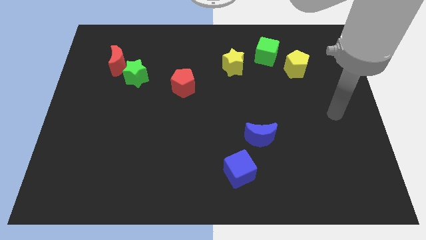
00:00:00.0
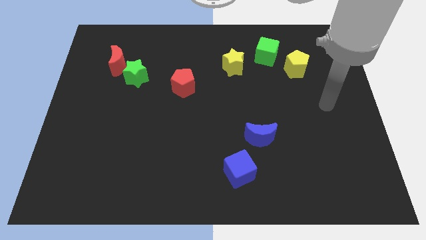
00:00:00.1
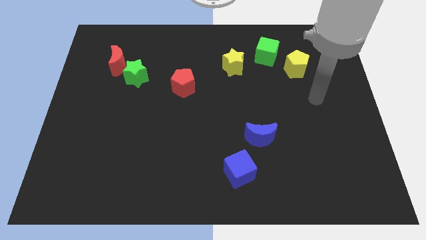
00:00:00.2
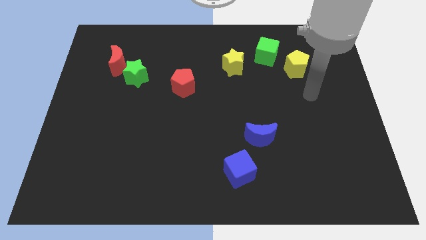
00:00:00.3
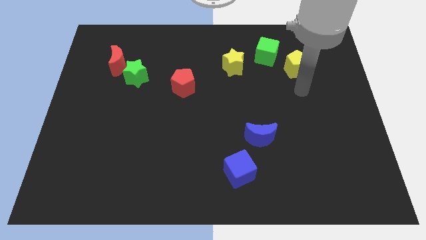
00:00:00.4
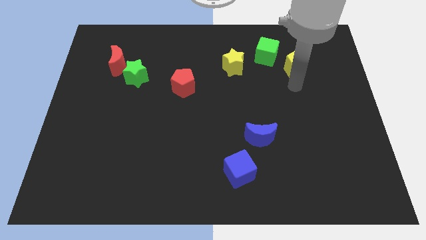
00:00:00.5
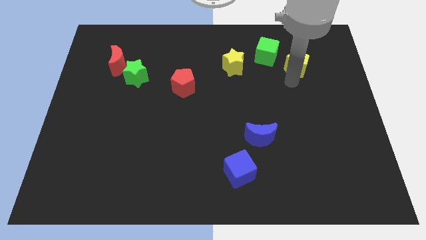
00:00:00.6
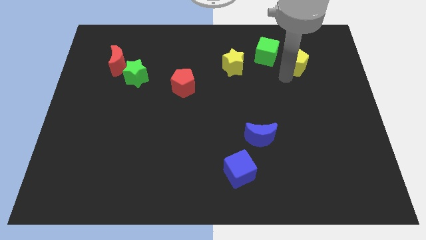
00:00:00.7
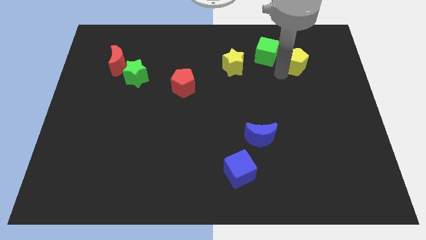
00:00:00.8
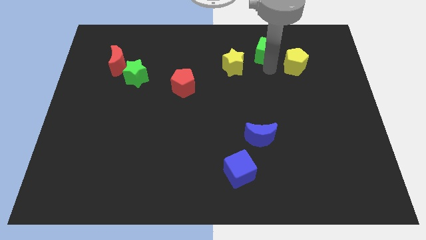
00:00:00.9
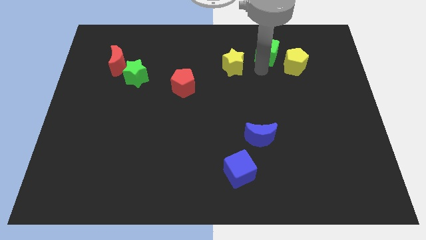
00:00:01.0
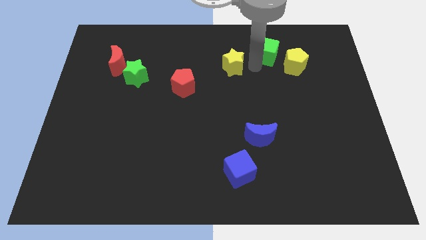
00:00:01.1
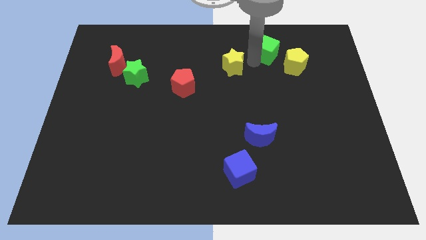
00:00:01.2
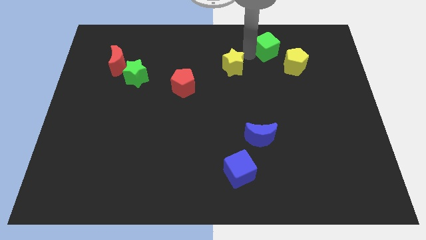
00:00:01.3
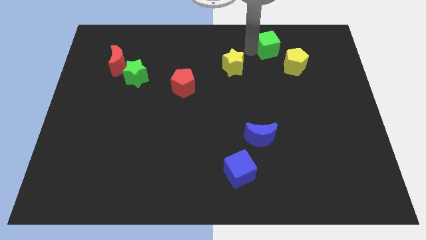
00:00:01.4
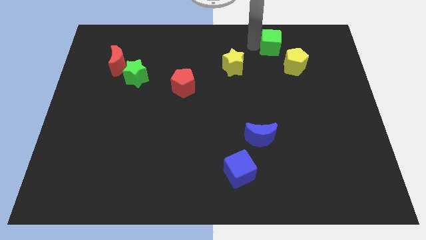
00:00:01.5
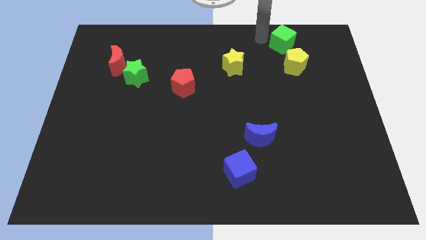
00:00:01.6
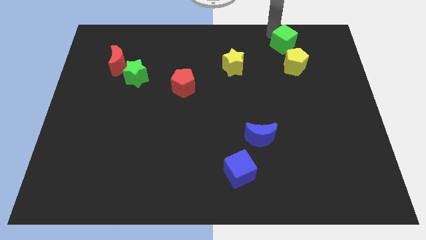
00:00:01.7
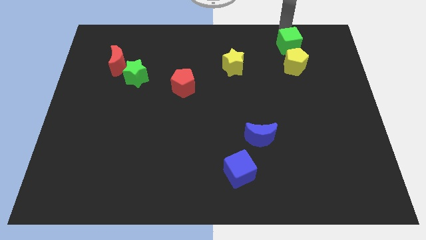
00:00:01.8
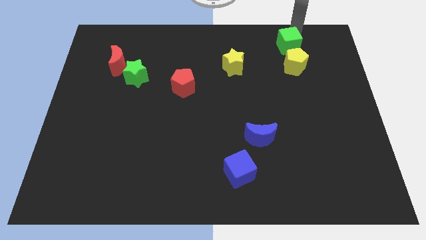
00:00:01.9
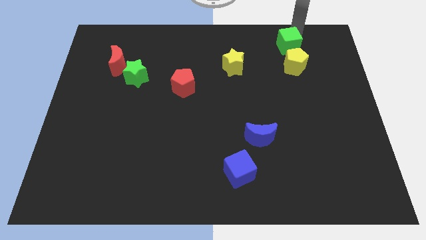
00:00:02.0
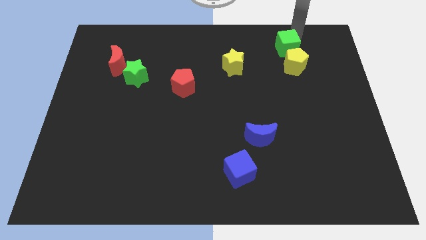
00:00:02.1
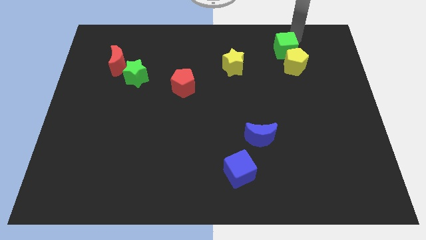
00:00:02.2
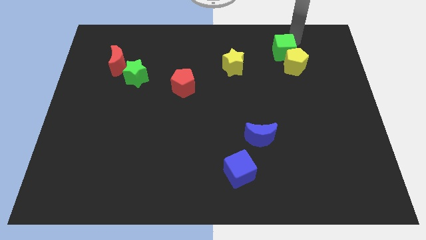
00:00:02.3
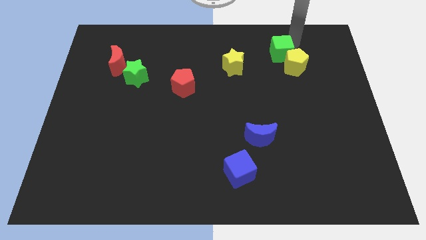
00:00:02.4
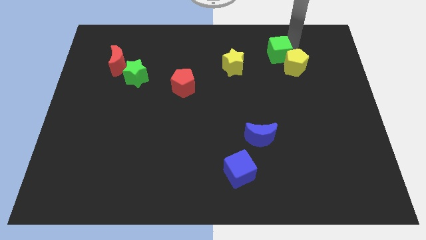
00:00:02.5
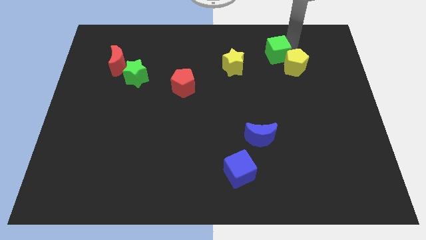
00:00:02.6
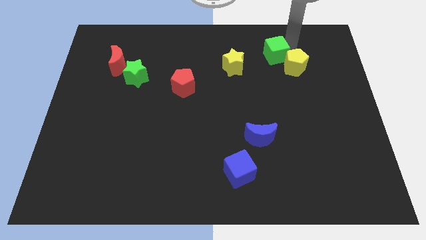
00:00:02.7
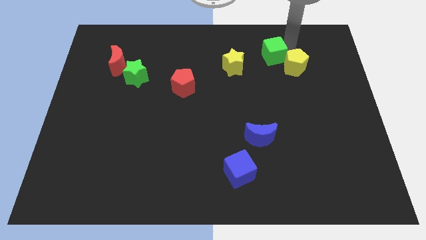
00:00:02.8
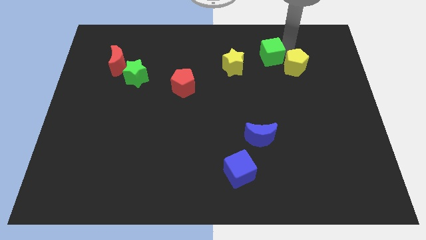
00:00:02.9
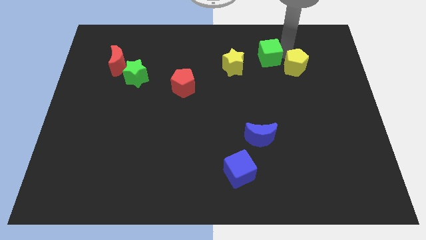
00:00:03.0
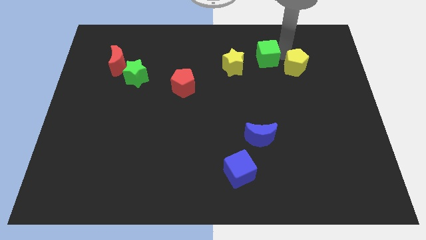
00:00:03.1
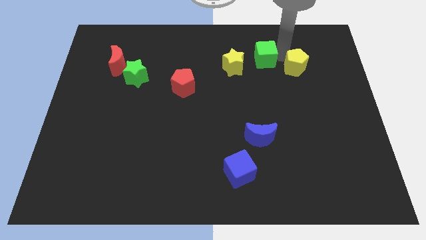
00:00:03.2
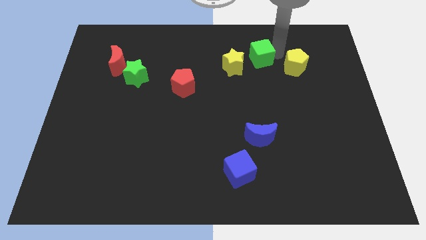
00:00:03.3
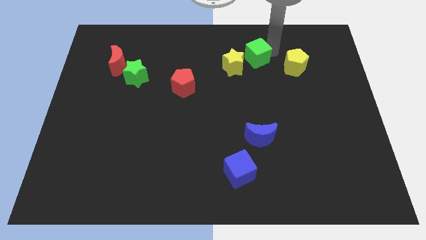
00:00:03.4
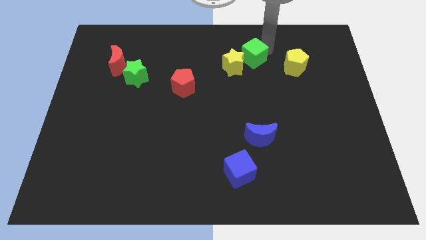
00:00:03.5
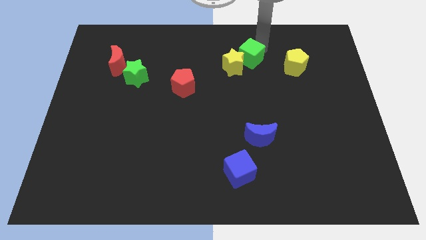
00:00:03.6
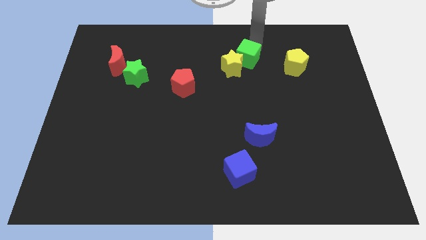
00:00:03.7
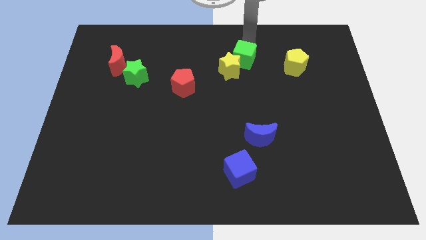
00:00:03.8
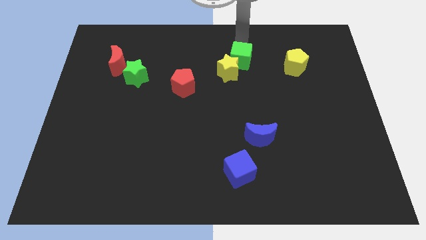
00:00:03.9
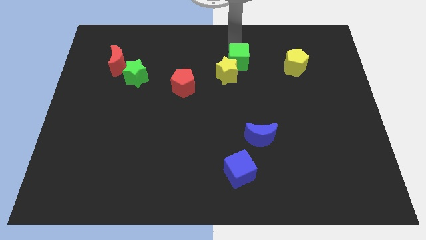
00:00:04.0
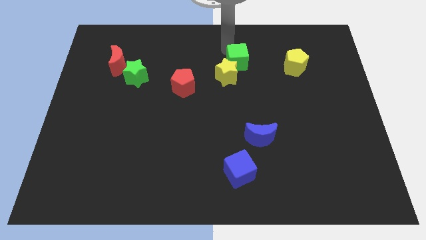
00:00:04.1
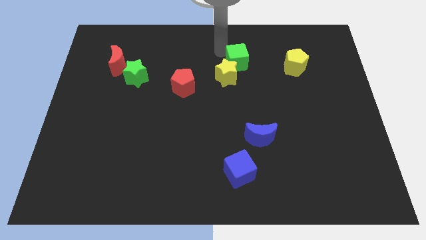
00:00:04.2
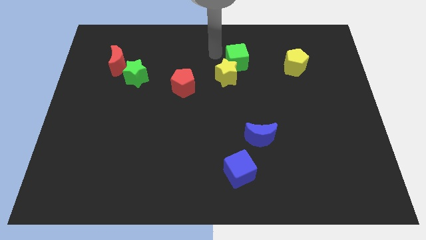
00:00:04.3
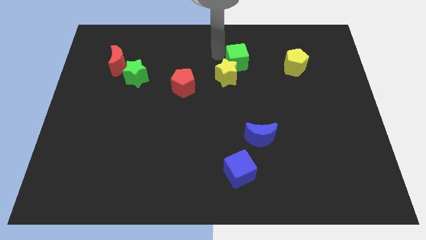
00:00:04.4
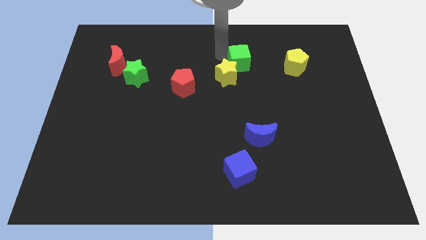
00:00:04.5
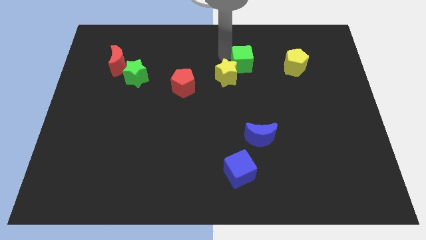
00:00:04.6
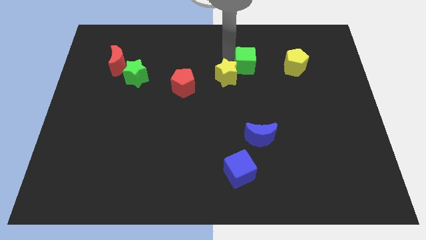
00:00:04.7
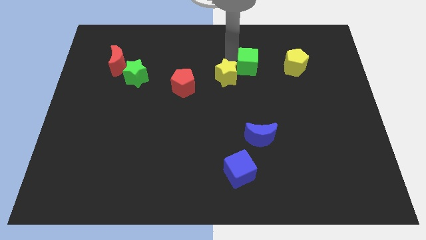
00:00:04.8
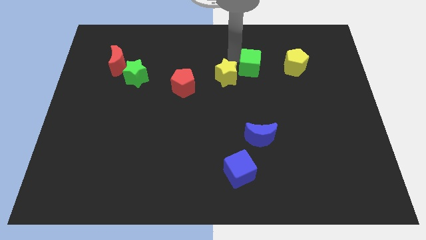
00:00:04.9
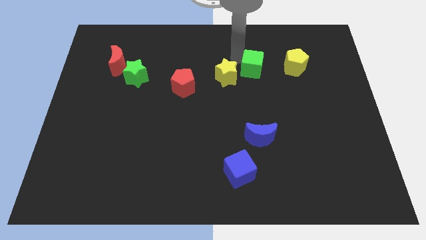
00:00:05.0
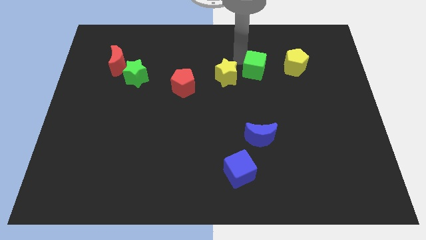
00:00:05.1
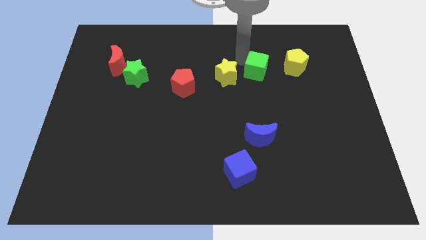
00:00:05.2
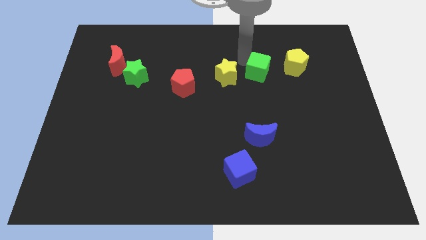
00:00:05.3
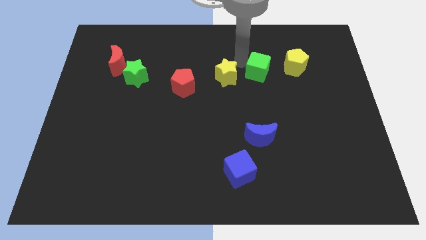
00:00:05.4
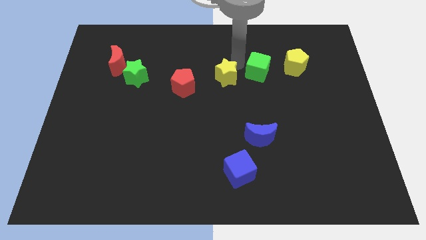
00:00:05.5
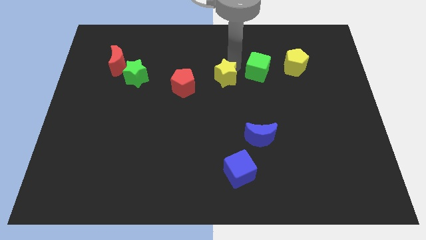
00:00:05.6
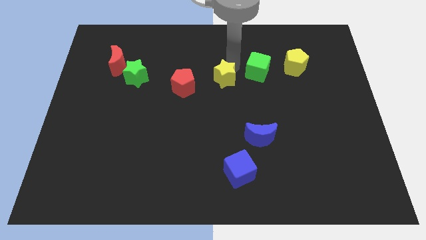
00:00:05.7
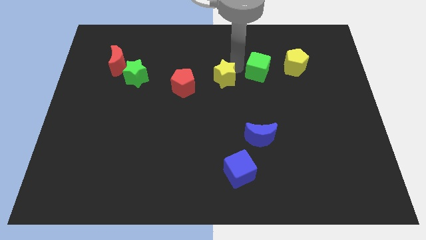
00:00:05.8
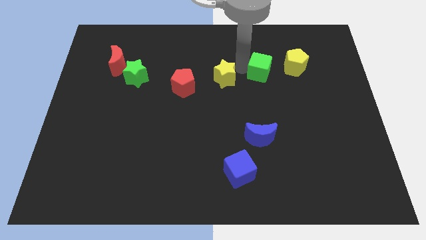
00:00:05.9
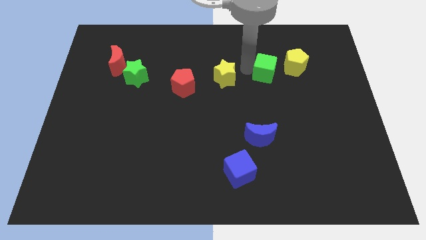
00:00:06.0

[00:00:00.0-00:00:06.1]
slide the green cube to the bottom left side of the yellow pentagon

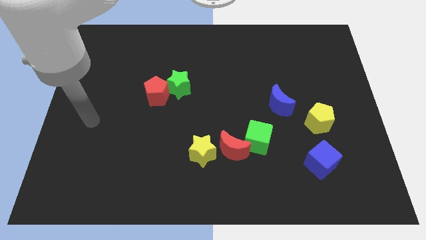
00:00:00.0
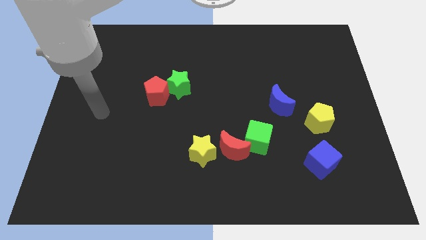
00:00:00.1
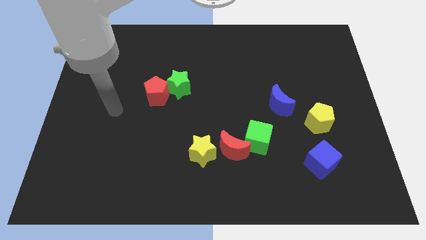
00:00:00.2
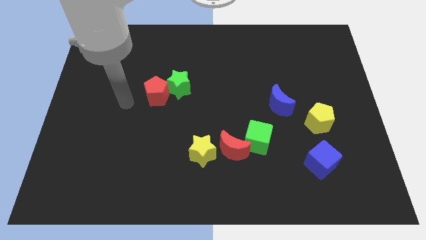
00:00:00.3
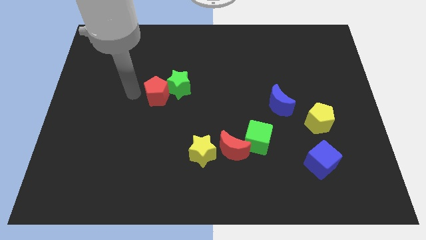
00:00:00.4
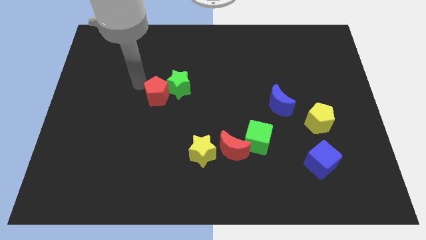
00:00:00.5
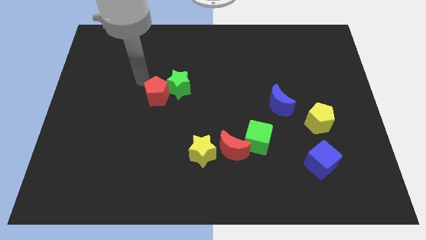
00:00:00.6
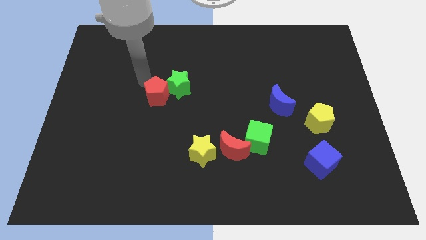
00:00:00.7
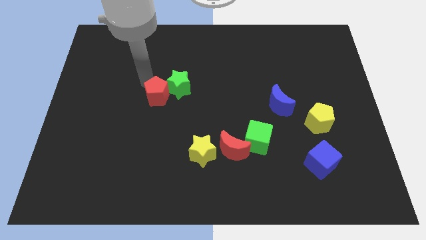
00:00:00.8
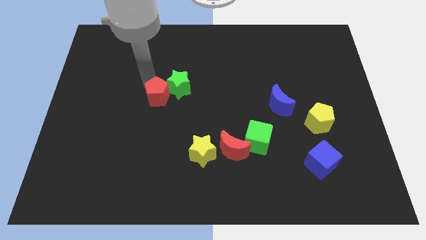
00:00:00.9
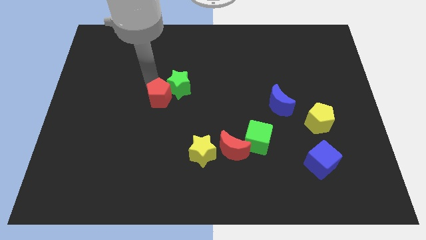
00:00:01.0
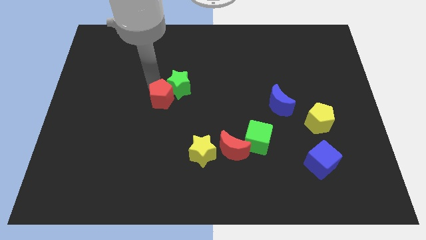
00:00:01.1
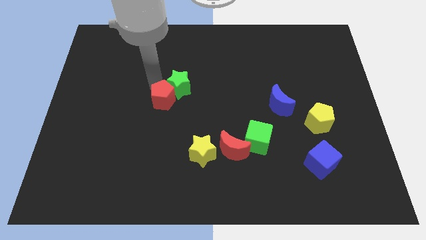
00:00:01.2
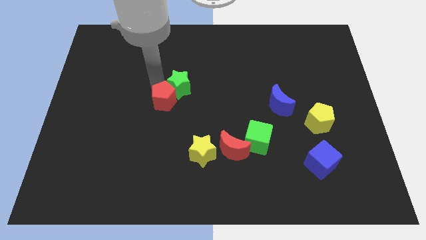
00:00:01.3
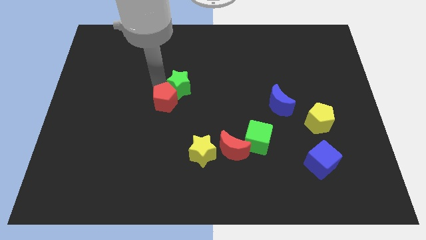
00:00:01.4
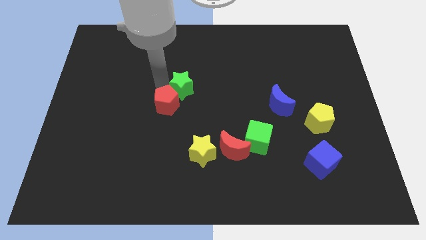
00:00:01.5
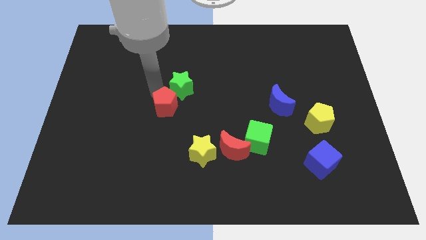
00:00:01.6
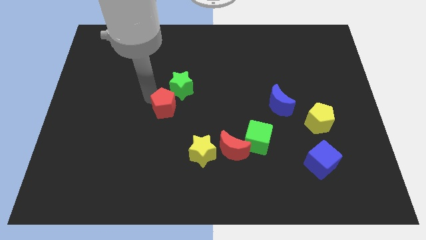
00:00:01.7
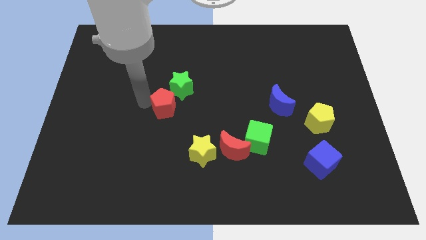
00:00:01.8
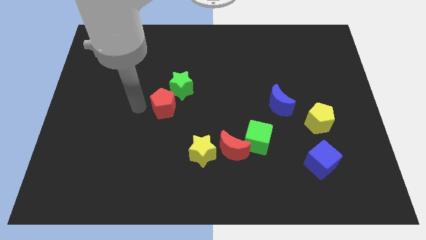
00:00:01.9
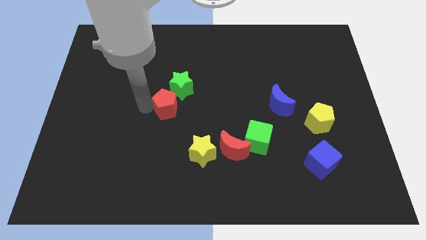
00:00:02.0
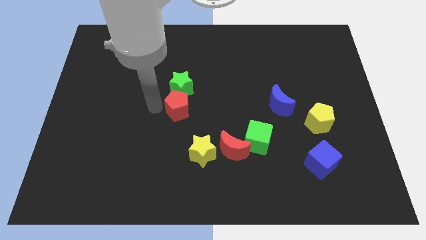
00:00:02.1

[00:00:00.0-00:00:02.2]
push the red pentagon diagonally down and to the right of the green star
